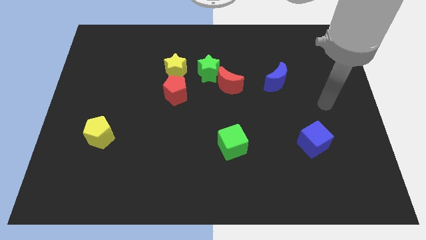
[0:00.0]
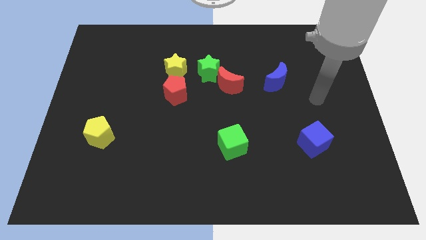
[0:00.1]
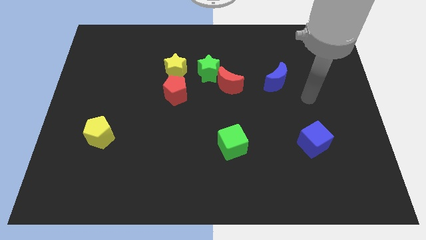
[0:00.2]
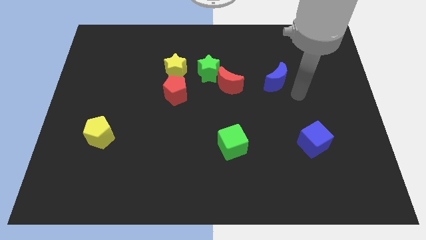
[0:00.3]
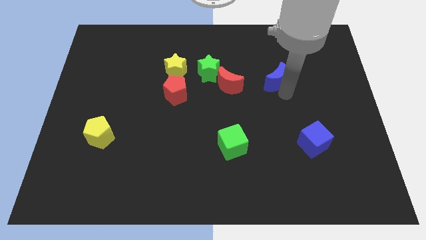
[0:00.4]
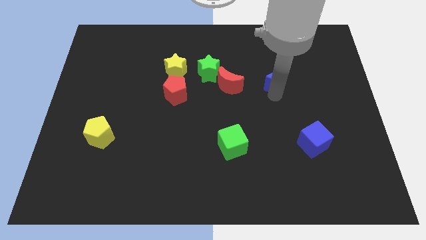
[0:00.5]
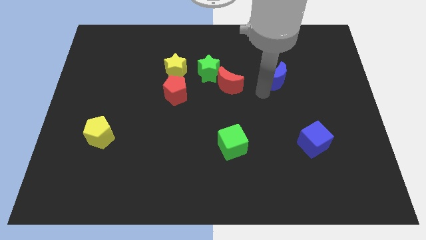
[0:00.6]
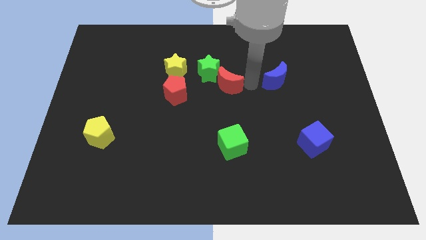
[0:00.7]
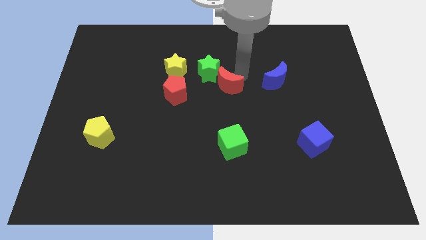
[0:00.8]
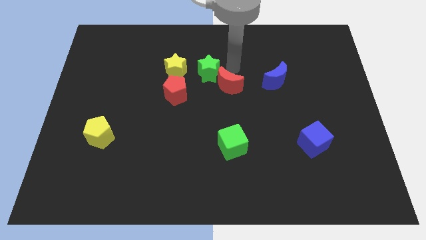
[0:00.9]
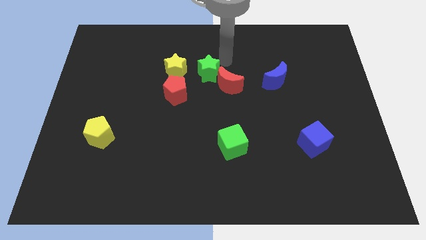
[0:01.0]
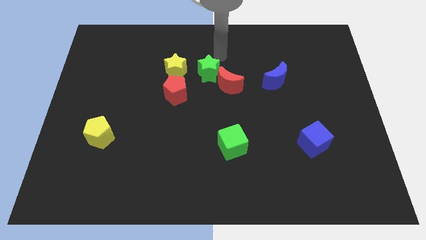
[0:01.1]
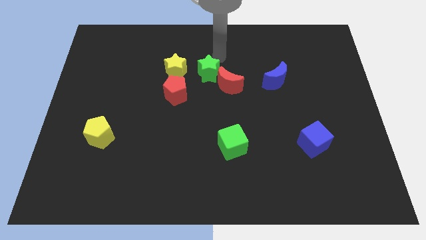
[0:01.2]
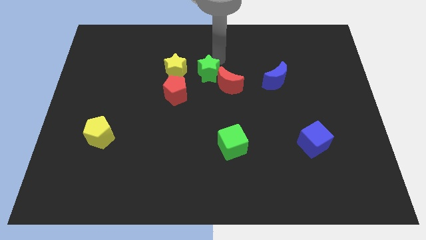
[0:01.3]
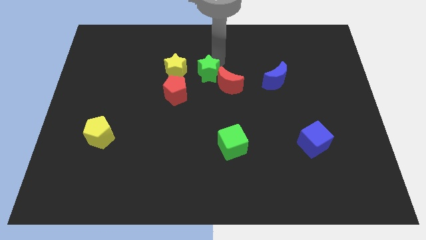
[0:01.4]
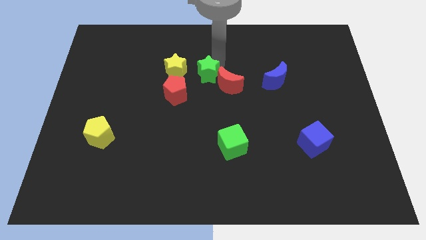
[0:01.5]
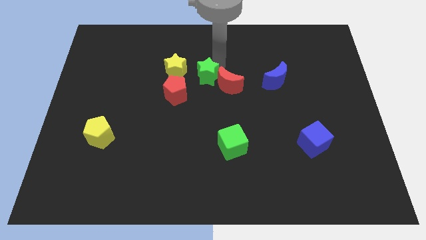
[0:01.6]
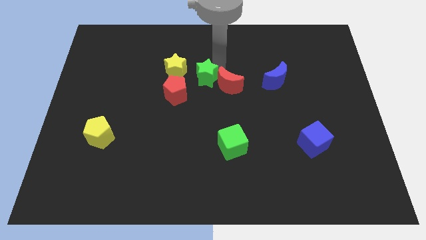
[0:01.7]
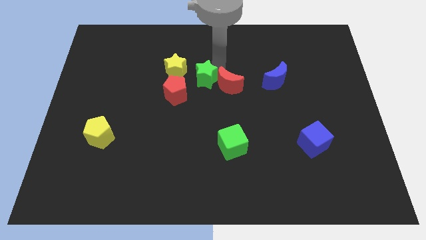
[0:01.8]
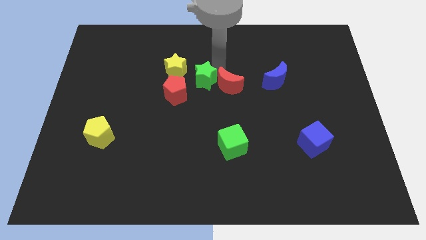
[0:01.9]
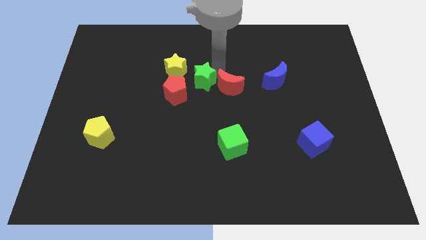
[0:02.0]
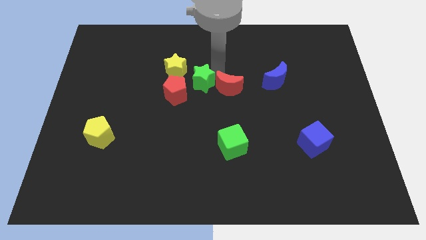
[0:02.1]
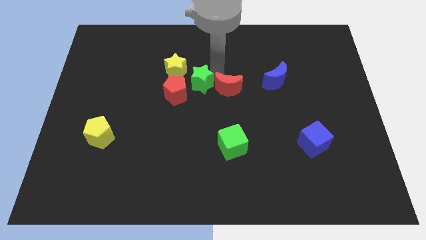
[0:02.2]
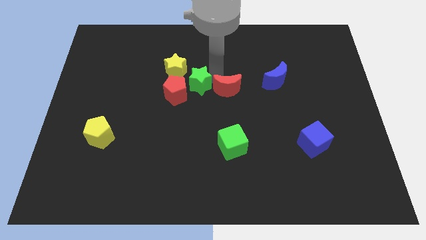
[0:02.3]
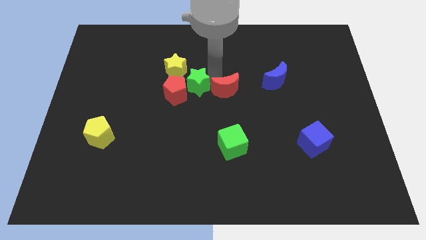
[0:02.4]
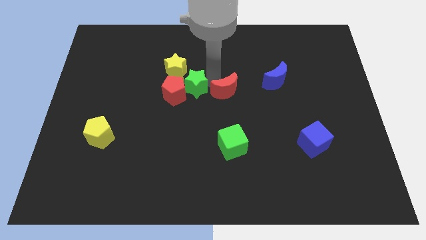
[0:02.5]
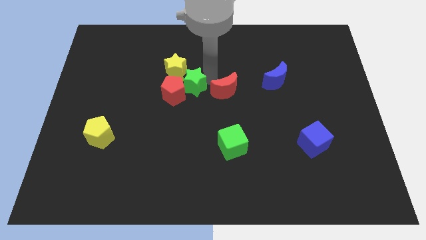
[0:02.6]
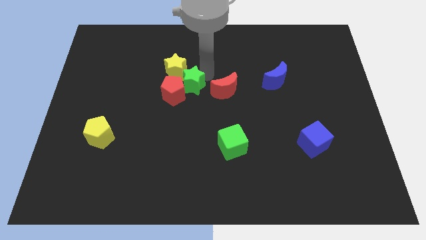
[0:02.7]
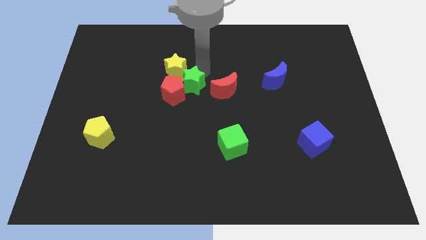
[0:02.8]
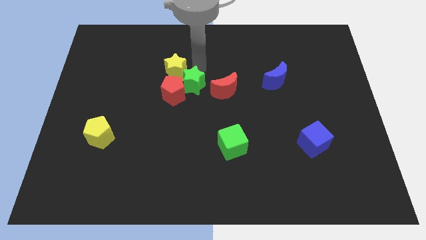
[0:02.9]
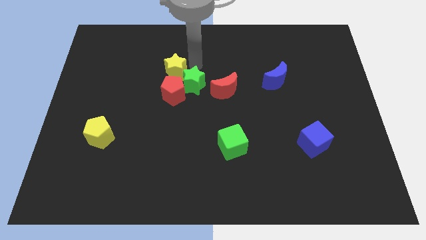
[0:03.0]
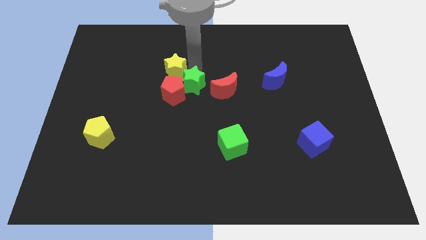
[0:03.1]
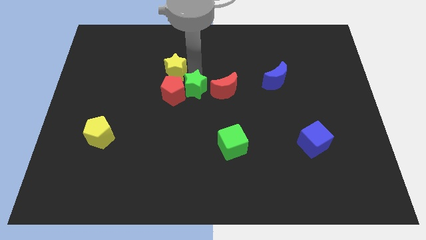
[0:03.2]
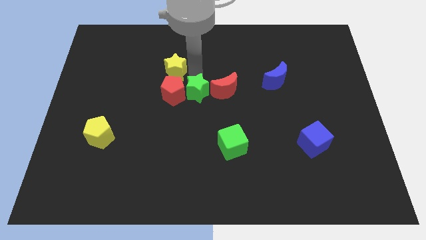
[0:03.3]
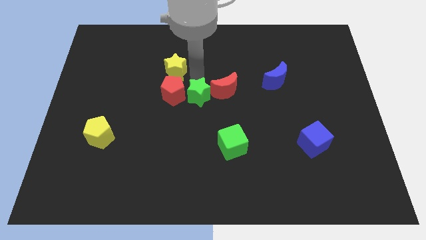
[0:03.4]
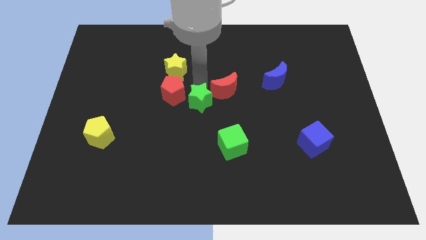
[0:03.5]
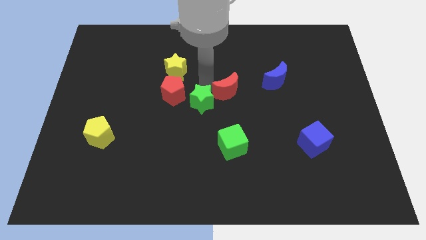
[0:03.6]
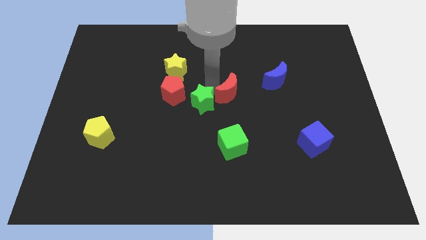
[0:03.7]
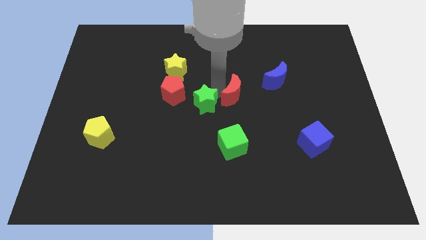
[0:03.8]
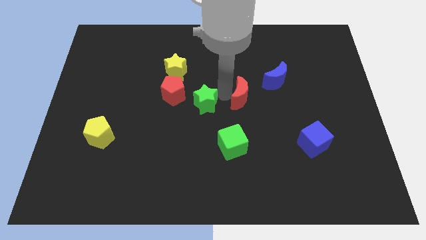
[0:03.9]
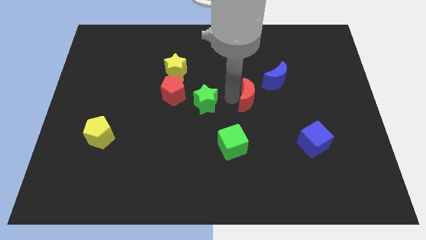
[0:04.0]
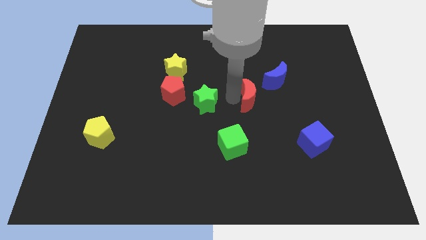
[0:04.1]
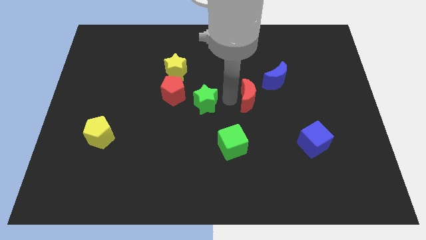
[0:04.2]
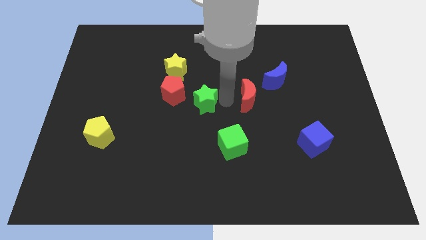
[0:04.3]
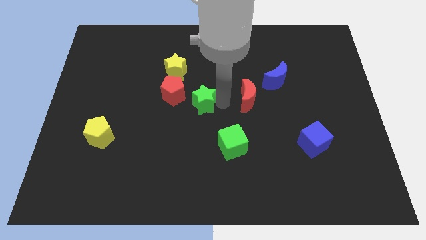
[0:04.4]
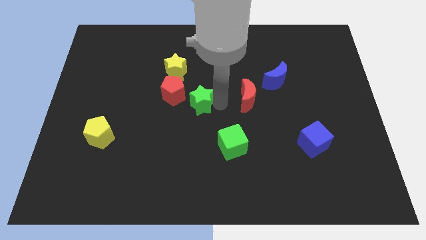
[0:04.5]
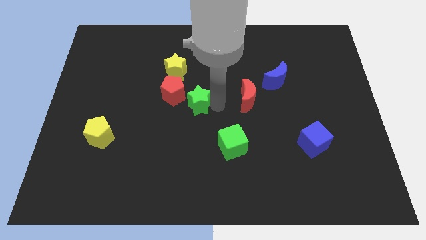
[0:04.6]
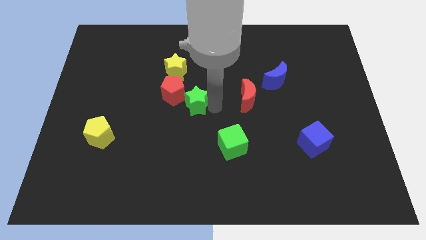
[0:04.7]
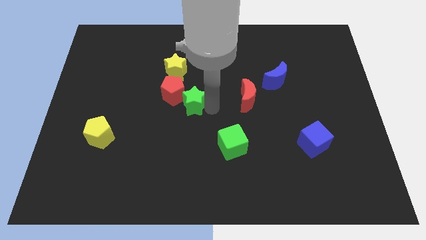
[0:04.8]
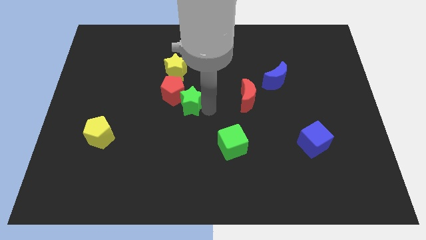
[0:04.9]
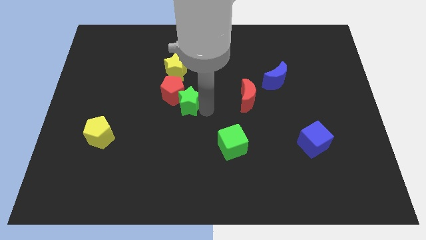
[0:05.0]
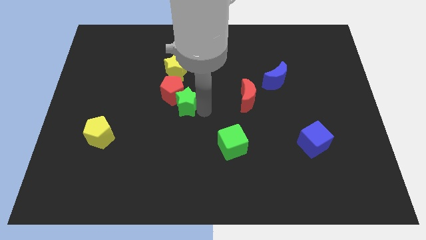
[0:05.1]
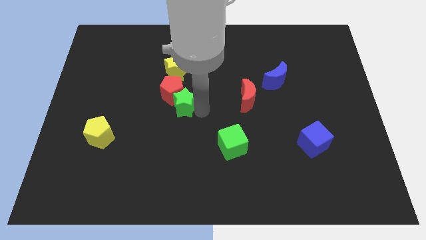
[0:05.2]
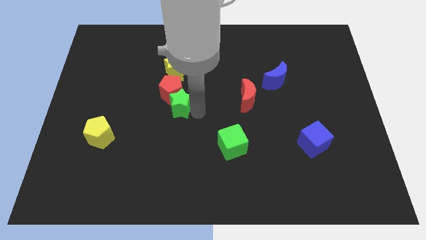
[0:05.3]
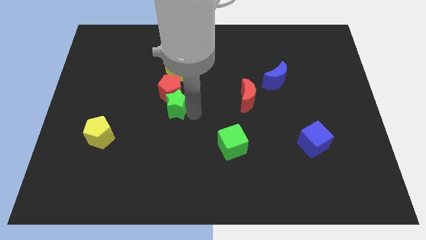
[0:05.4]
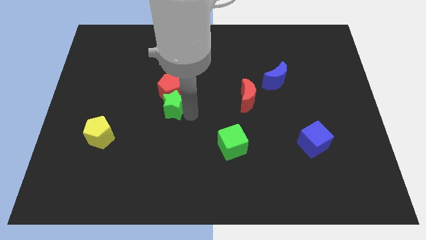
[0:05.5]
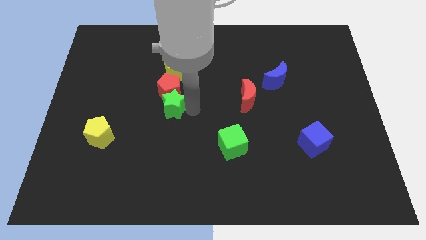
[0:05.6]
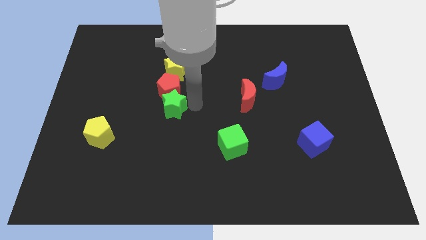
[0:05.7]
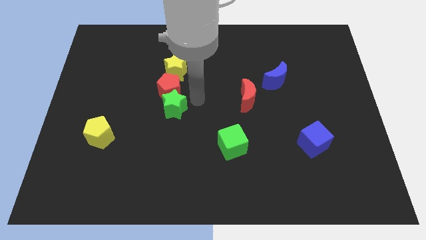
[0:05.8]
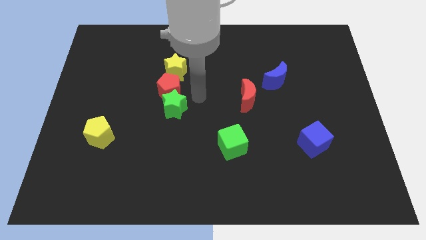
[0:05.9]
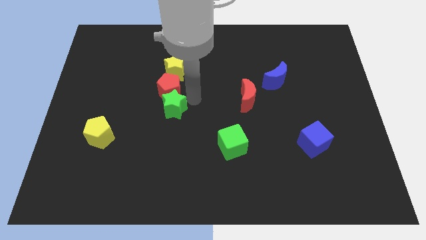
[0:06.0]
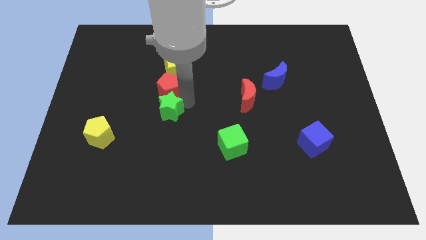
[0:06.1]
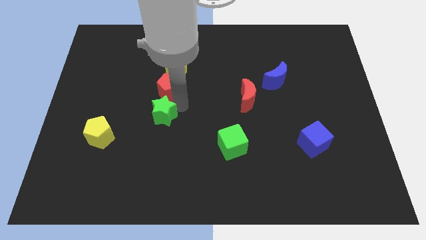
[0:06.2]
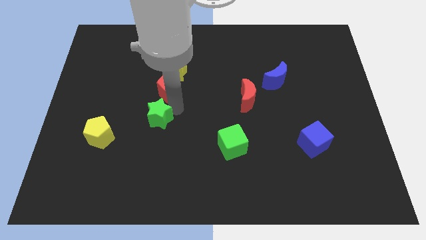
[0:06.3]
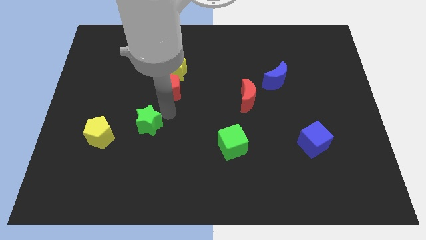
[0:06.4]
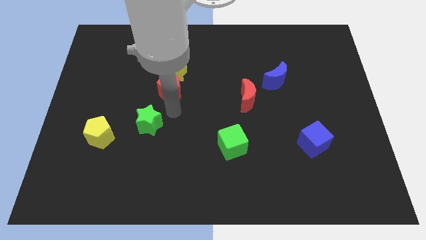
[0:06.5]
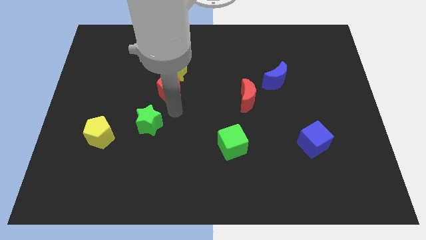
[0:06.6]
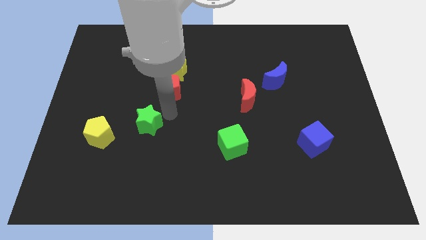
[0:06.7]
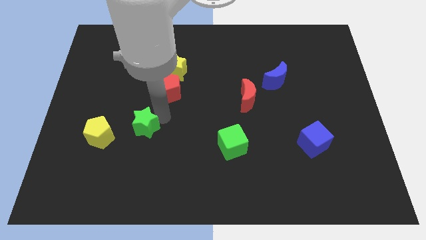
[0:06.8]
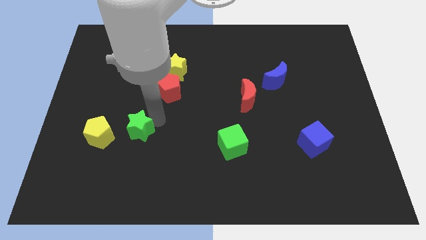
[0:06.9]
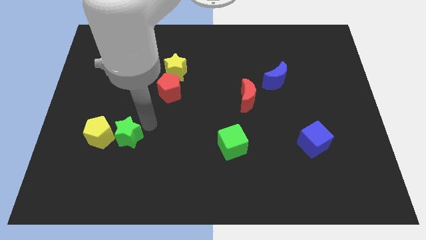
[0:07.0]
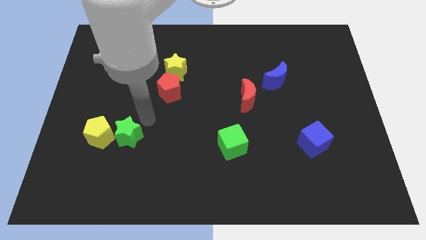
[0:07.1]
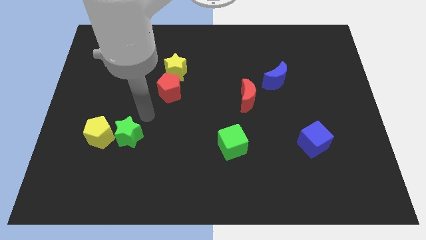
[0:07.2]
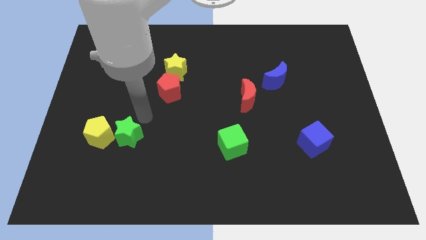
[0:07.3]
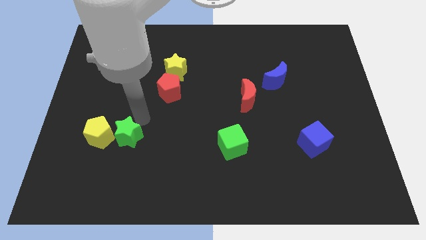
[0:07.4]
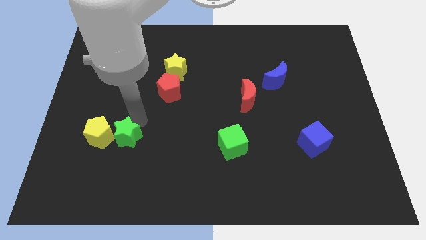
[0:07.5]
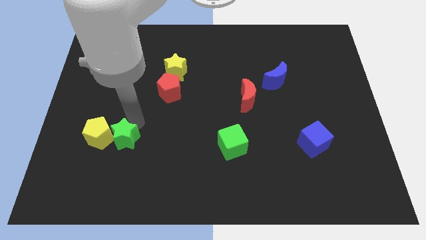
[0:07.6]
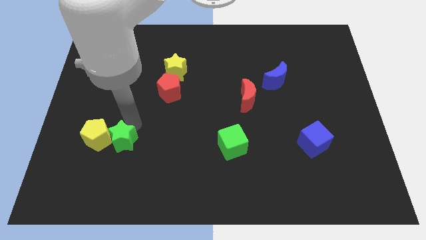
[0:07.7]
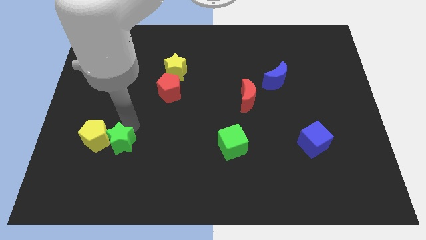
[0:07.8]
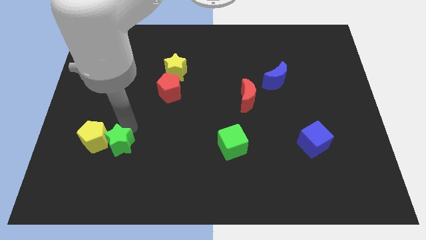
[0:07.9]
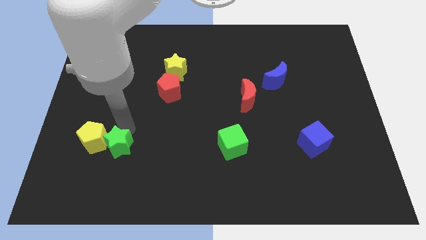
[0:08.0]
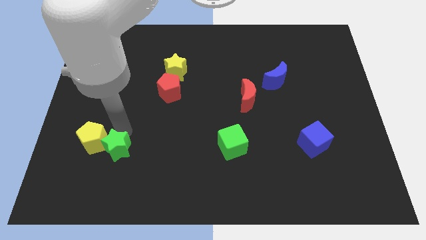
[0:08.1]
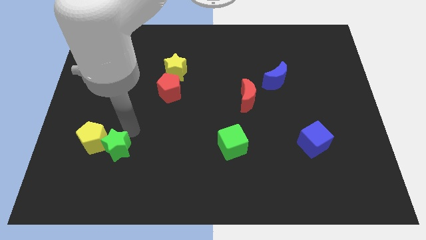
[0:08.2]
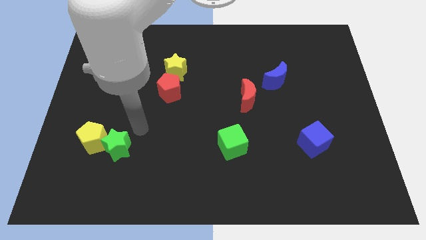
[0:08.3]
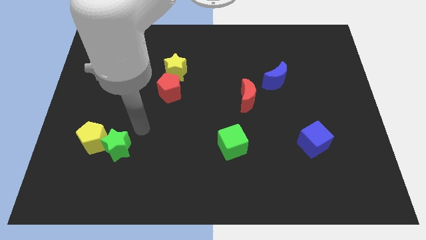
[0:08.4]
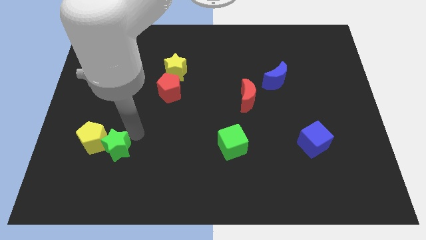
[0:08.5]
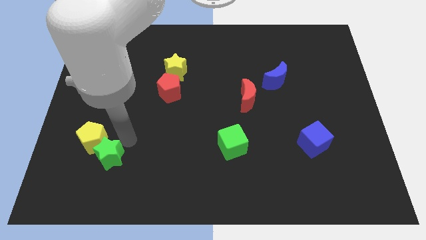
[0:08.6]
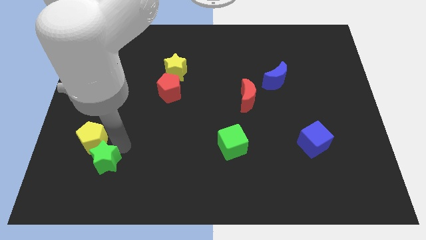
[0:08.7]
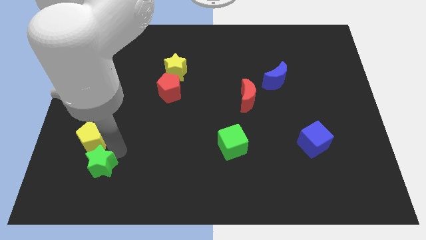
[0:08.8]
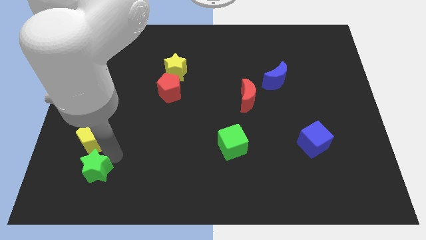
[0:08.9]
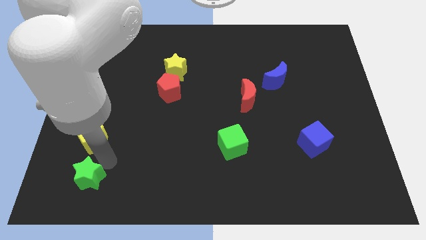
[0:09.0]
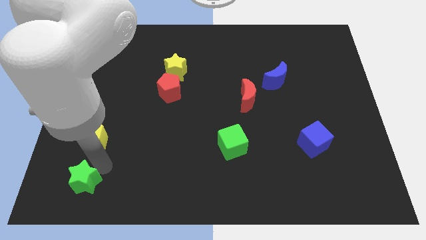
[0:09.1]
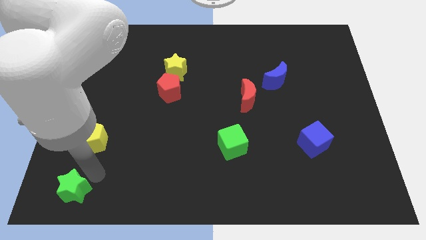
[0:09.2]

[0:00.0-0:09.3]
put the green star to the bottom left of the board
